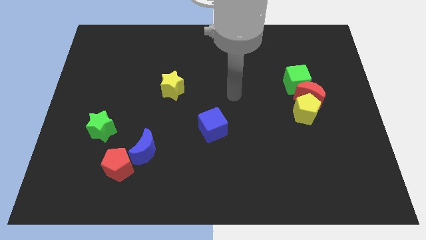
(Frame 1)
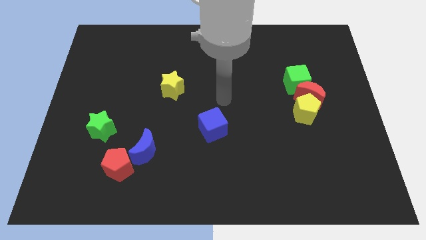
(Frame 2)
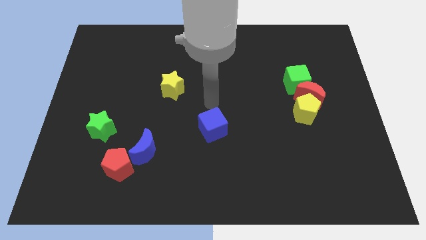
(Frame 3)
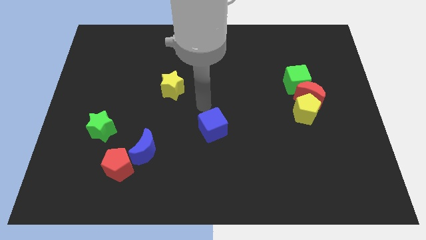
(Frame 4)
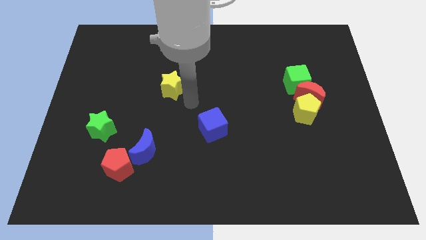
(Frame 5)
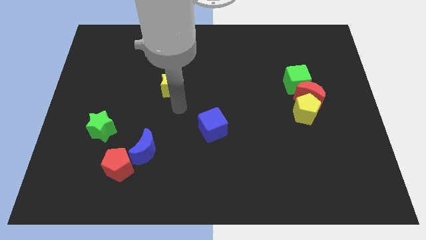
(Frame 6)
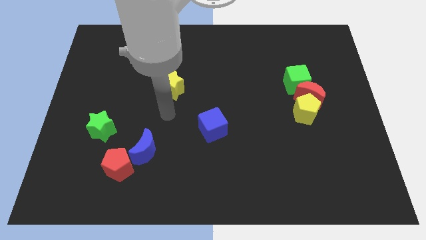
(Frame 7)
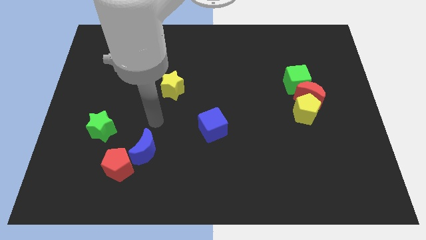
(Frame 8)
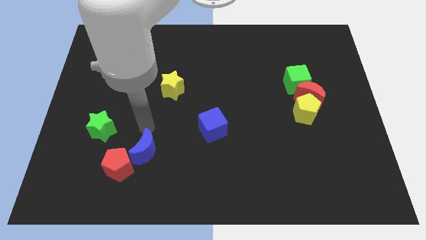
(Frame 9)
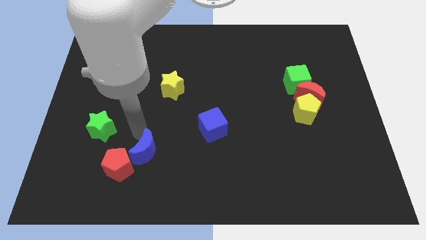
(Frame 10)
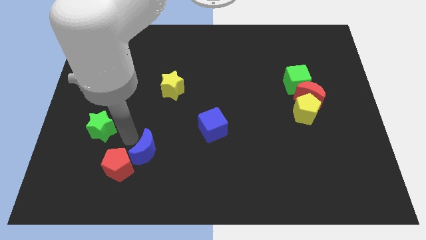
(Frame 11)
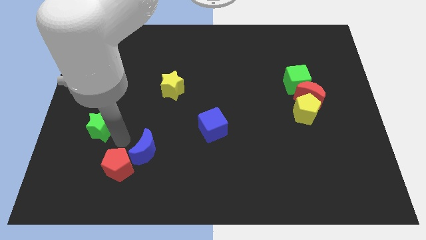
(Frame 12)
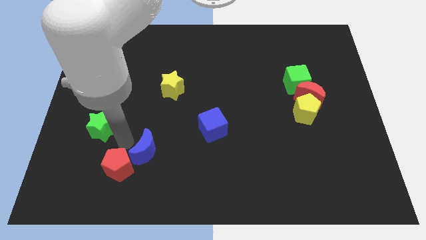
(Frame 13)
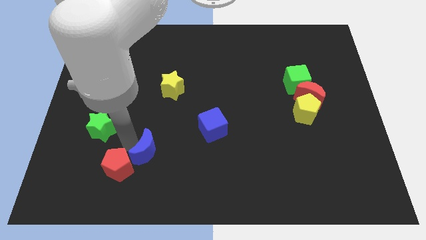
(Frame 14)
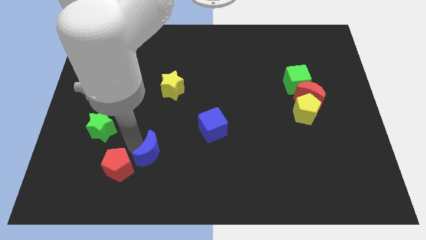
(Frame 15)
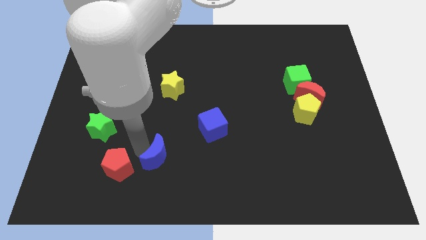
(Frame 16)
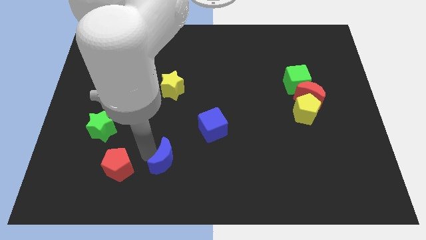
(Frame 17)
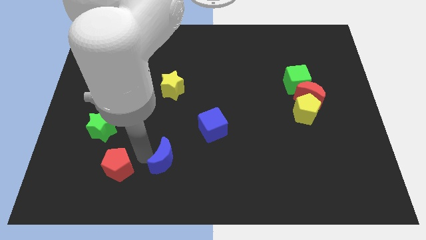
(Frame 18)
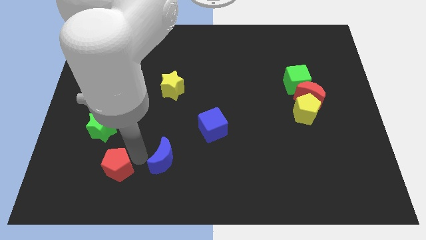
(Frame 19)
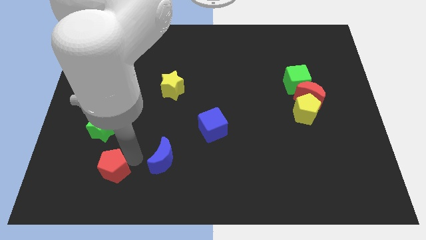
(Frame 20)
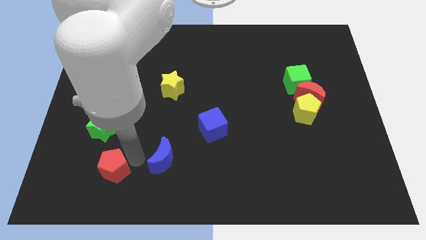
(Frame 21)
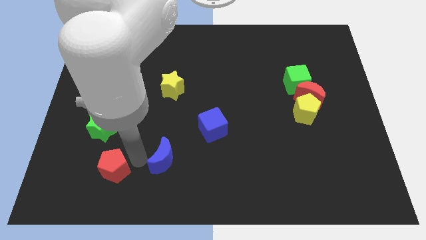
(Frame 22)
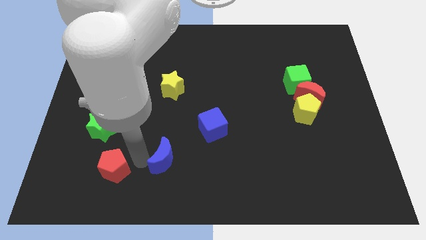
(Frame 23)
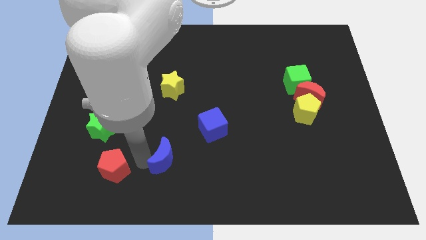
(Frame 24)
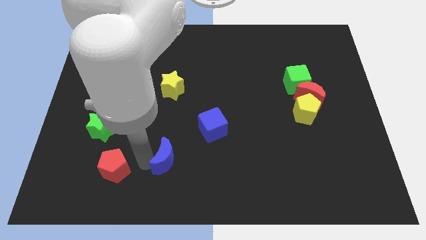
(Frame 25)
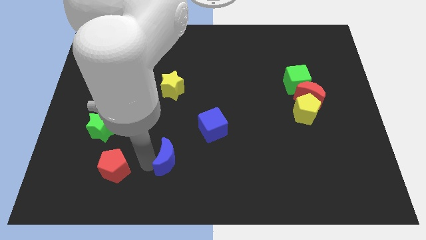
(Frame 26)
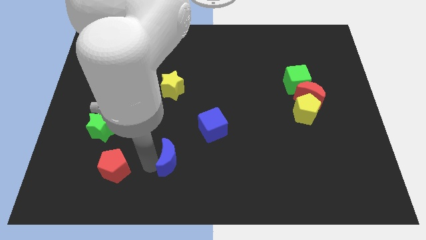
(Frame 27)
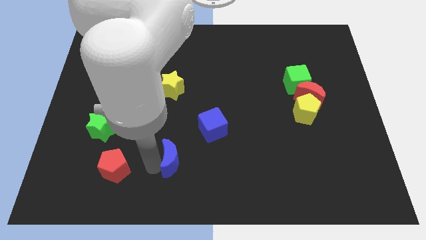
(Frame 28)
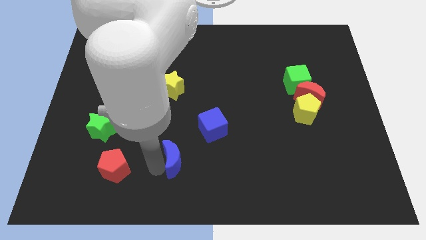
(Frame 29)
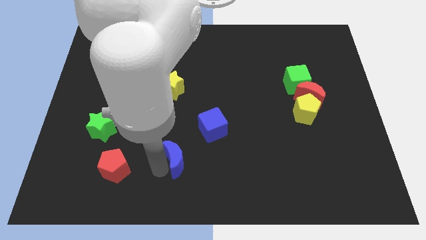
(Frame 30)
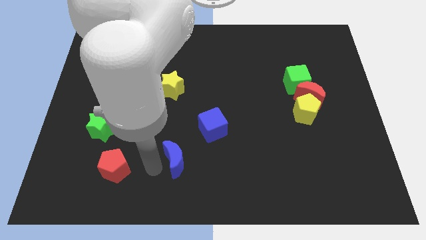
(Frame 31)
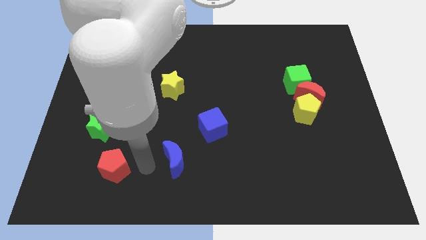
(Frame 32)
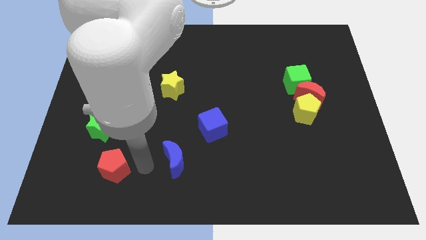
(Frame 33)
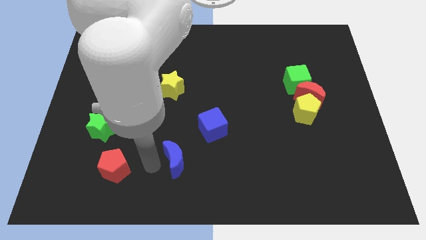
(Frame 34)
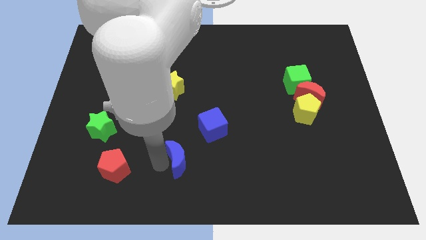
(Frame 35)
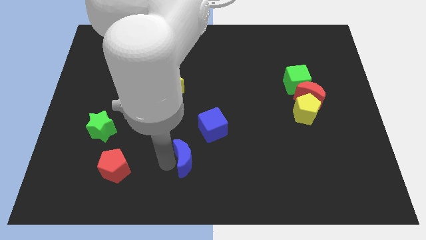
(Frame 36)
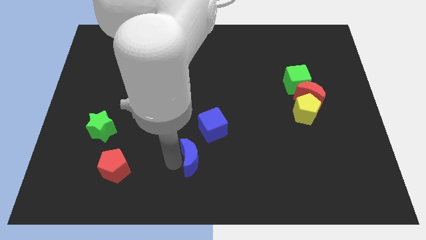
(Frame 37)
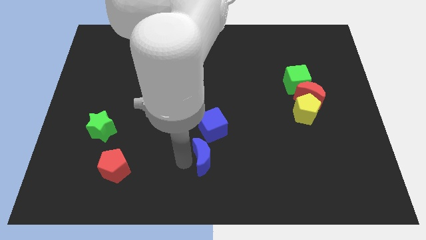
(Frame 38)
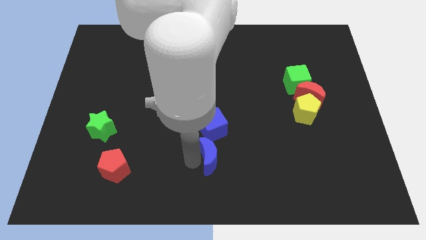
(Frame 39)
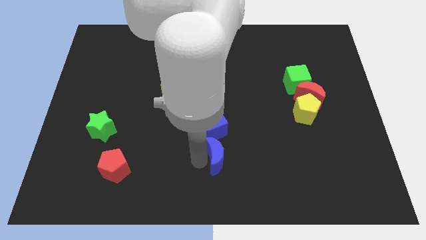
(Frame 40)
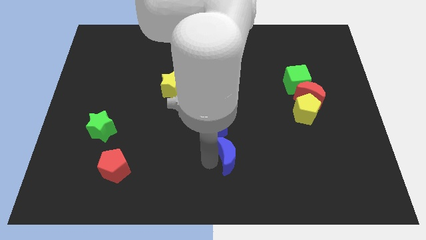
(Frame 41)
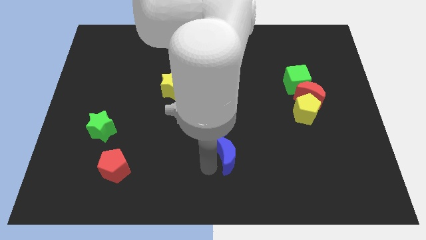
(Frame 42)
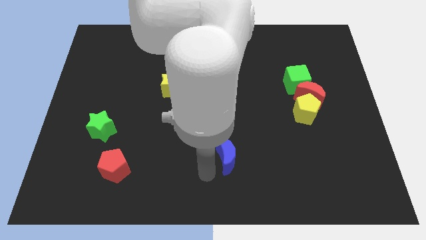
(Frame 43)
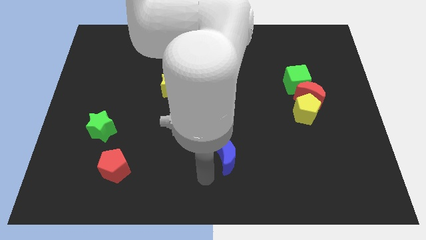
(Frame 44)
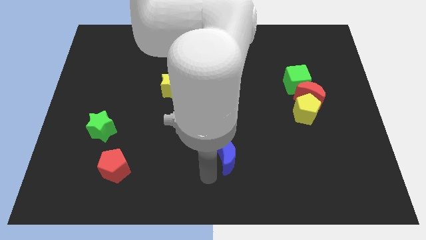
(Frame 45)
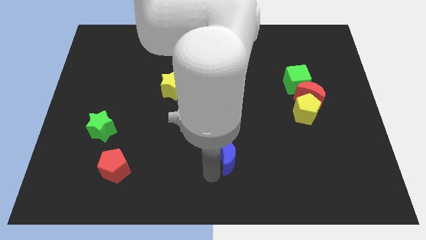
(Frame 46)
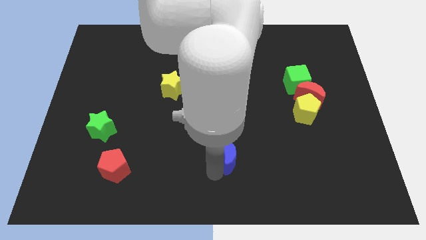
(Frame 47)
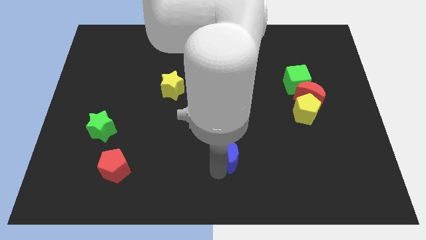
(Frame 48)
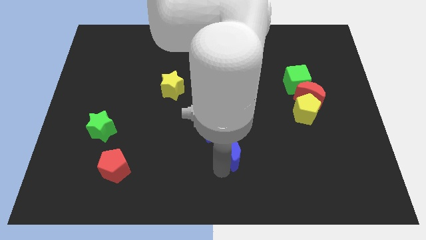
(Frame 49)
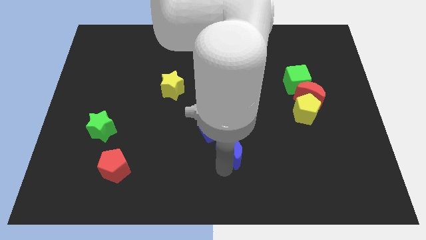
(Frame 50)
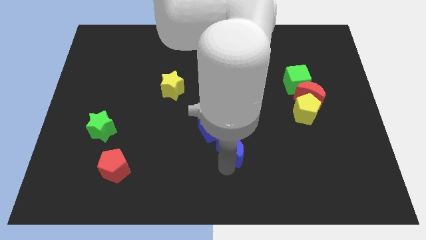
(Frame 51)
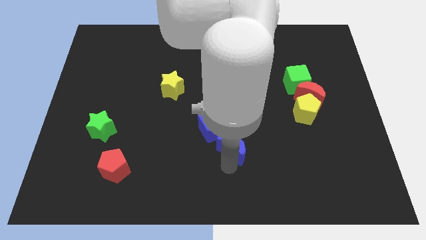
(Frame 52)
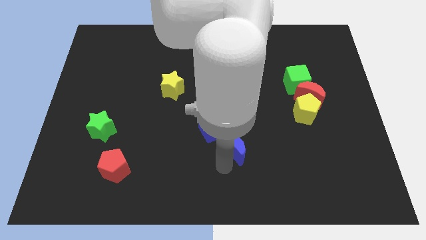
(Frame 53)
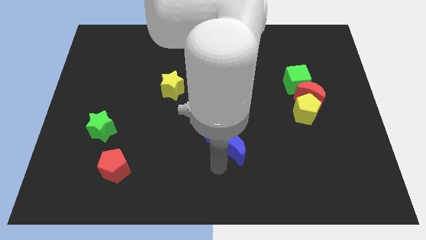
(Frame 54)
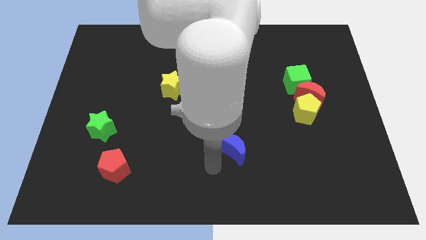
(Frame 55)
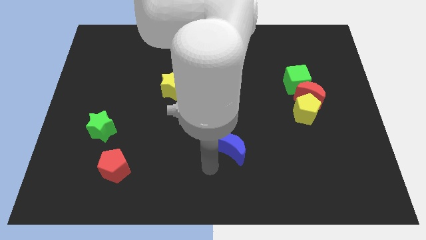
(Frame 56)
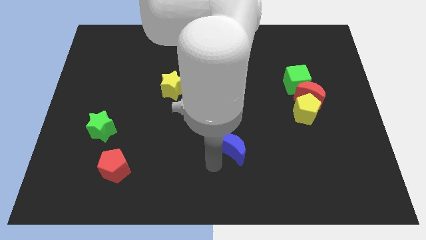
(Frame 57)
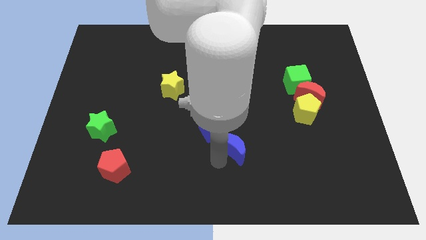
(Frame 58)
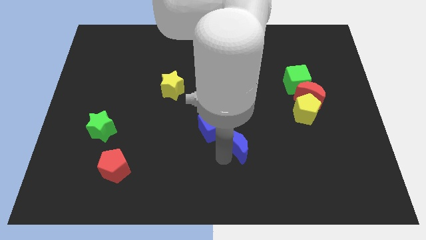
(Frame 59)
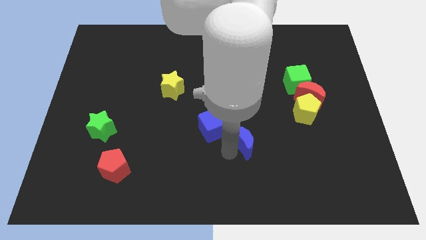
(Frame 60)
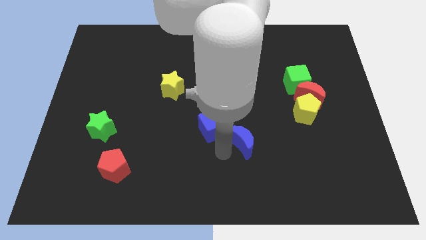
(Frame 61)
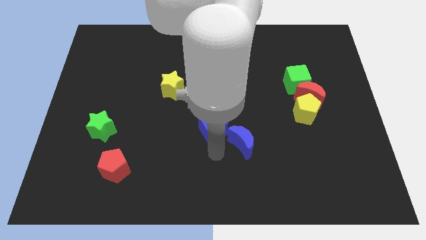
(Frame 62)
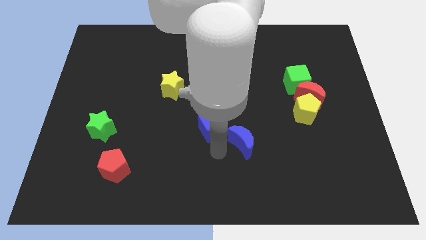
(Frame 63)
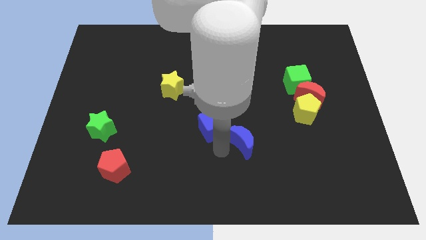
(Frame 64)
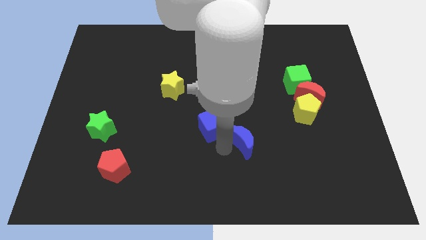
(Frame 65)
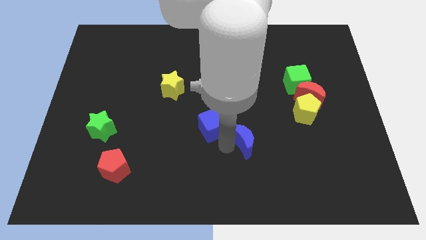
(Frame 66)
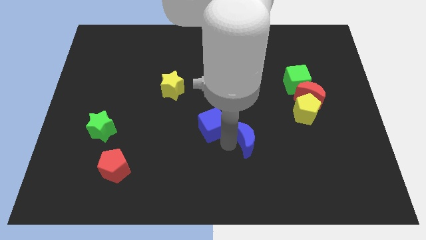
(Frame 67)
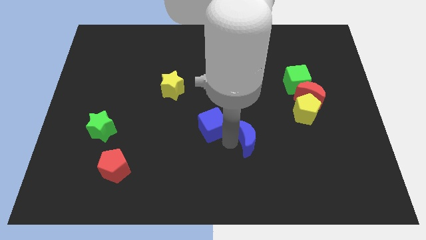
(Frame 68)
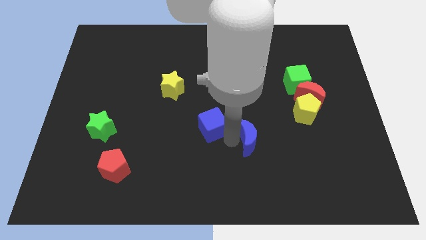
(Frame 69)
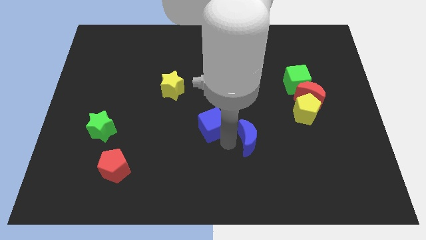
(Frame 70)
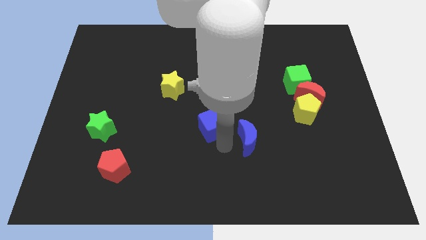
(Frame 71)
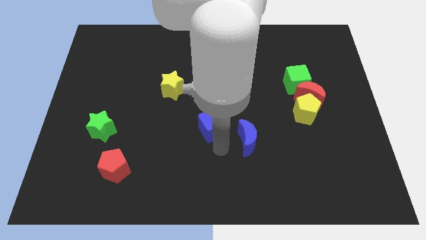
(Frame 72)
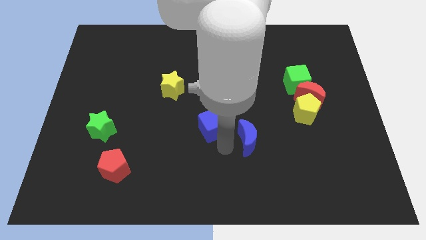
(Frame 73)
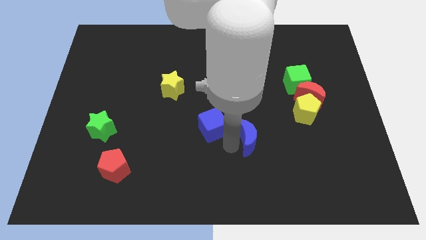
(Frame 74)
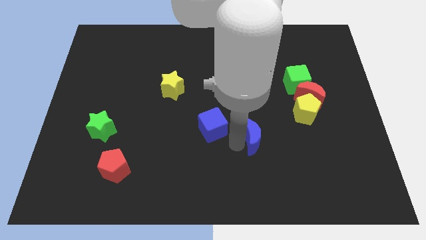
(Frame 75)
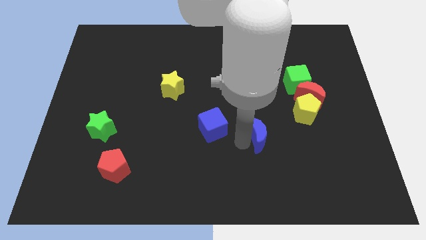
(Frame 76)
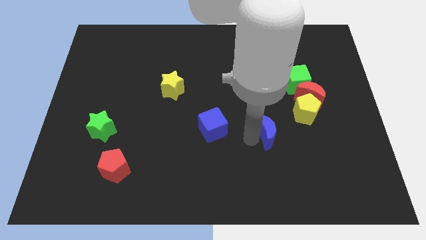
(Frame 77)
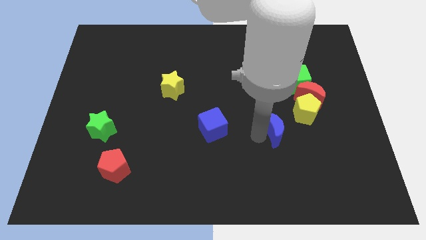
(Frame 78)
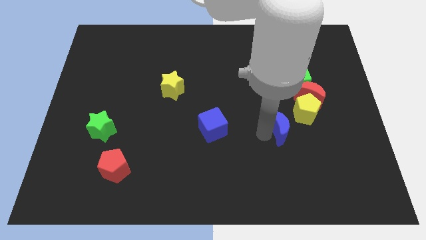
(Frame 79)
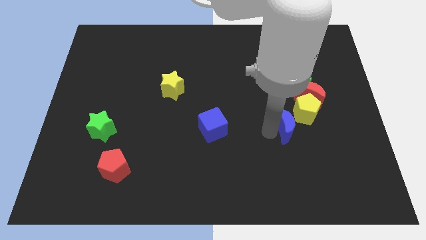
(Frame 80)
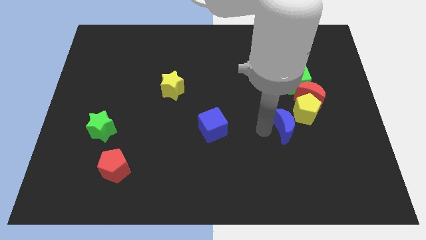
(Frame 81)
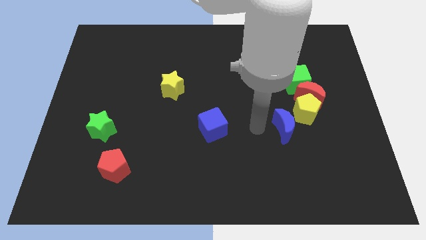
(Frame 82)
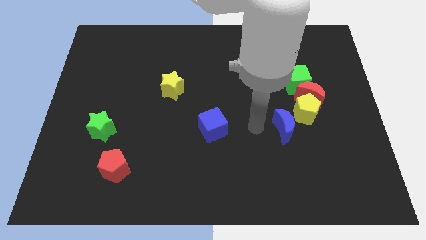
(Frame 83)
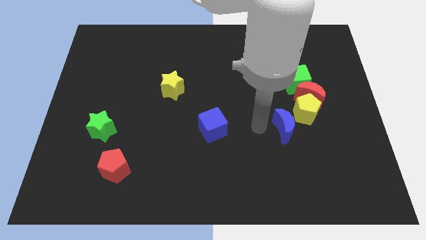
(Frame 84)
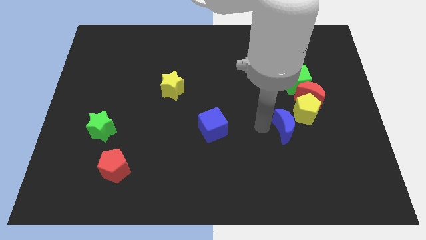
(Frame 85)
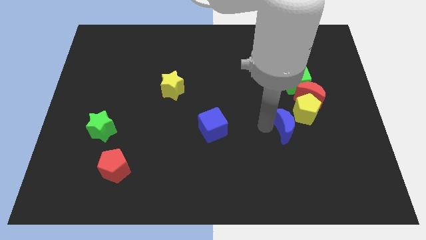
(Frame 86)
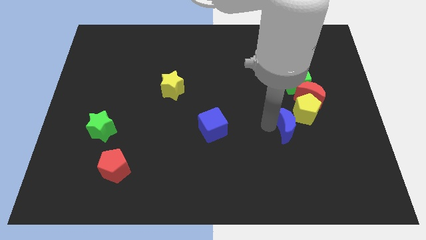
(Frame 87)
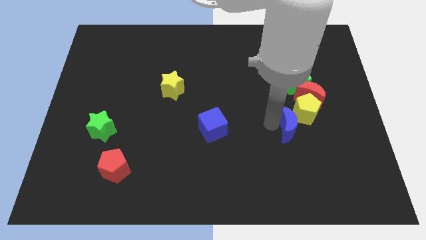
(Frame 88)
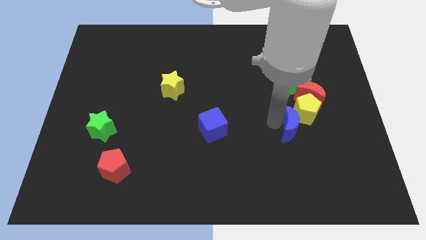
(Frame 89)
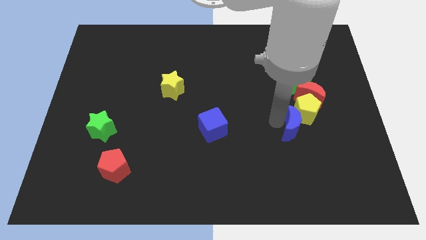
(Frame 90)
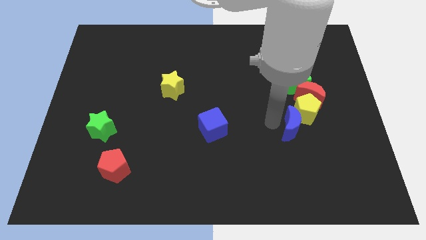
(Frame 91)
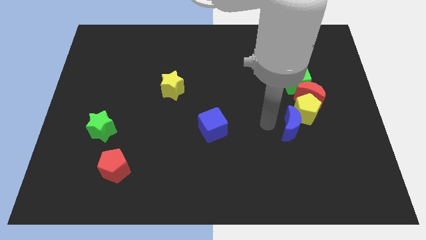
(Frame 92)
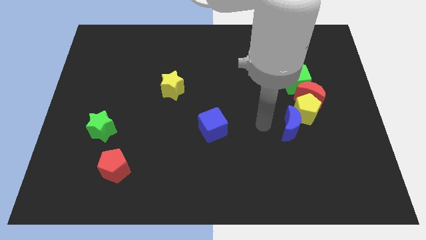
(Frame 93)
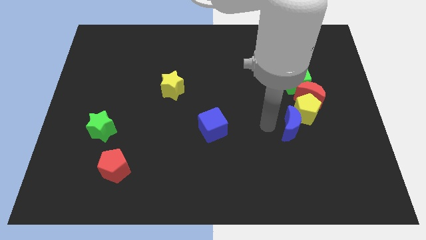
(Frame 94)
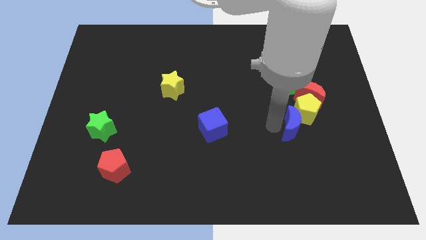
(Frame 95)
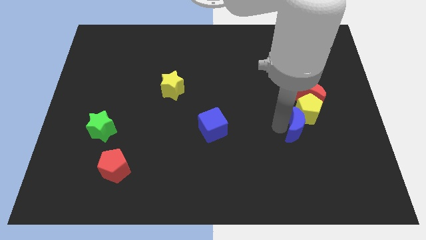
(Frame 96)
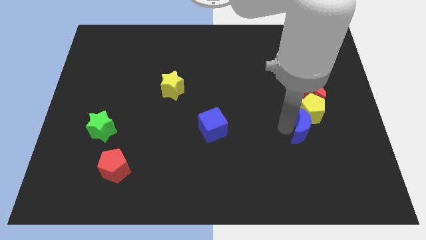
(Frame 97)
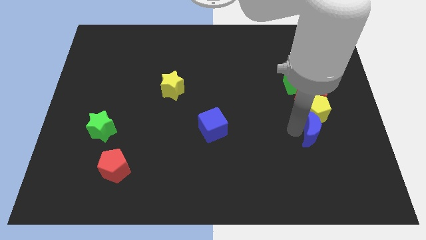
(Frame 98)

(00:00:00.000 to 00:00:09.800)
put the blue moon to the bottom right of the yellow pentagon
